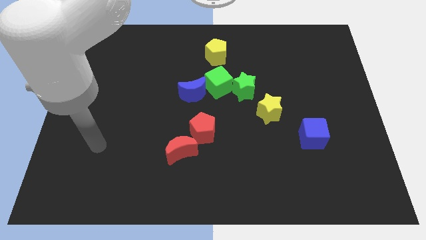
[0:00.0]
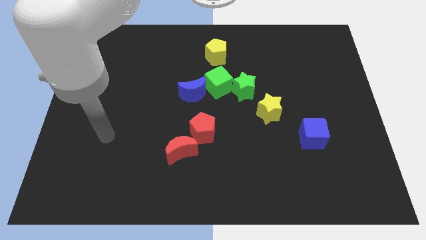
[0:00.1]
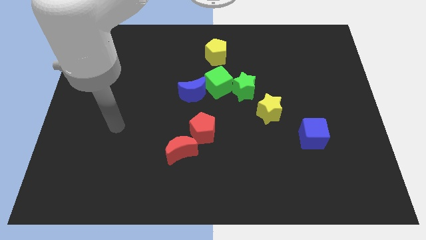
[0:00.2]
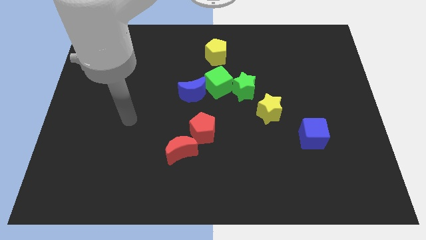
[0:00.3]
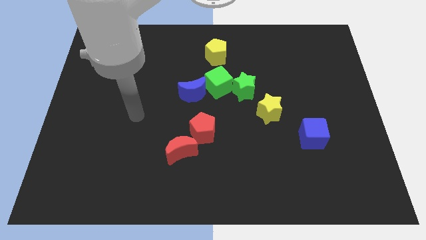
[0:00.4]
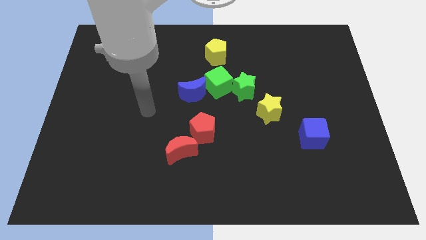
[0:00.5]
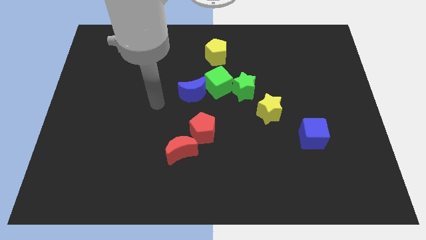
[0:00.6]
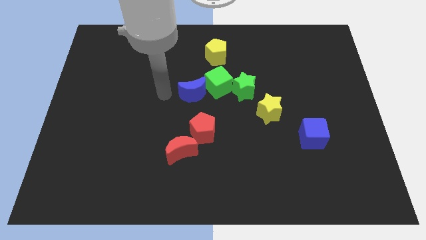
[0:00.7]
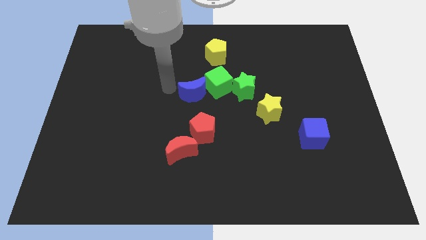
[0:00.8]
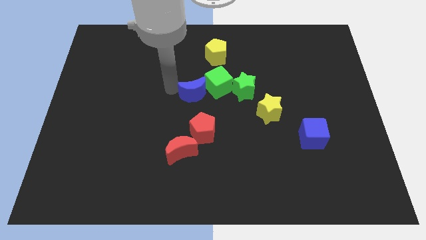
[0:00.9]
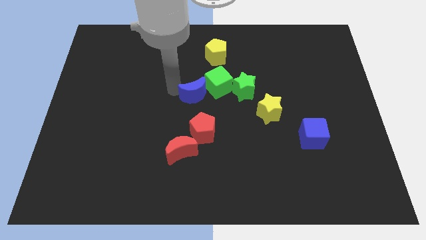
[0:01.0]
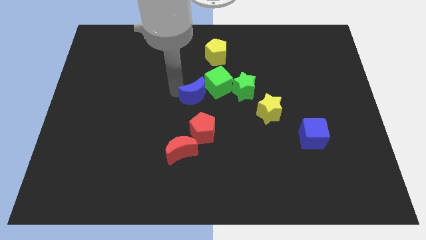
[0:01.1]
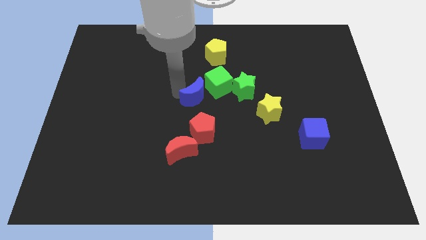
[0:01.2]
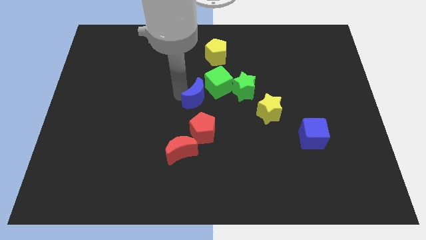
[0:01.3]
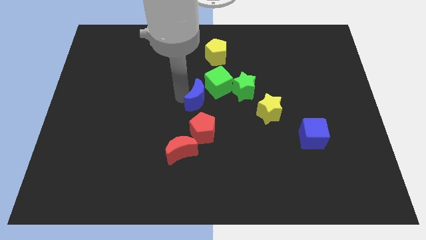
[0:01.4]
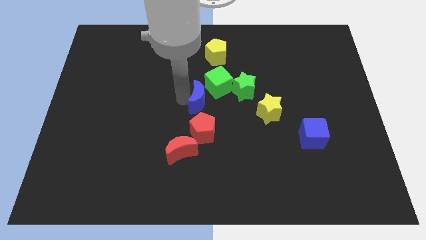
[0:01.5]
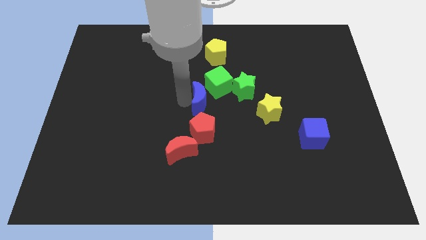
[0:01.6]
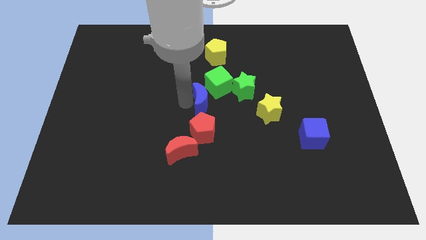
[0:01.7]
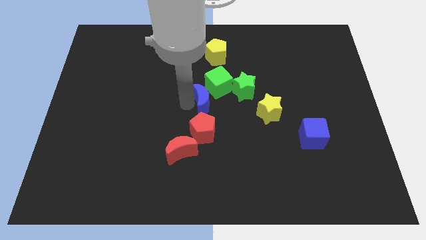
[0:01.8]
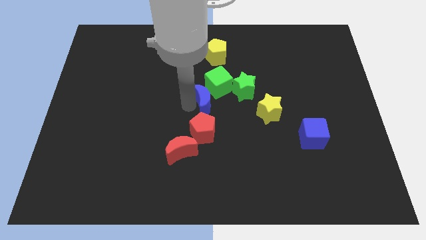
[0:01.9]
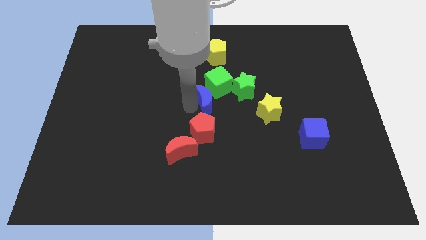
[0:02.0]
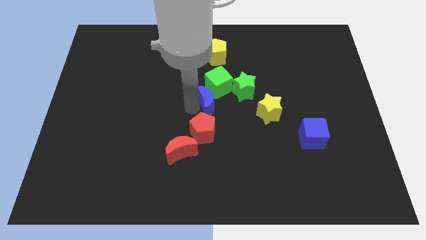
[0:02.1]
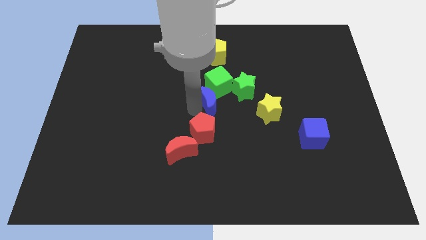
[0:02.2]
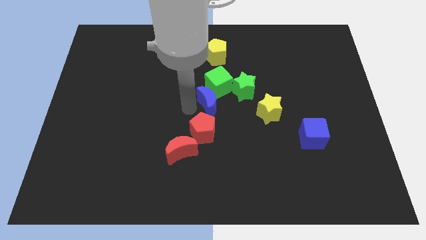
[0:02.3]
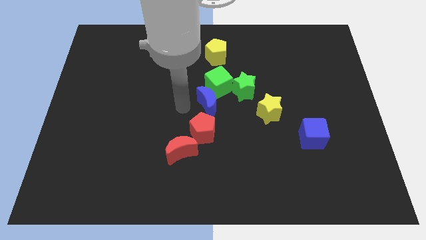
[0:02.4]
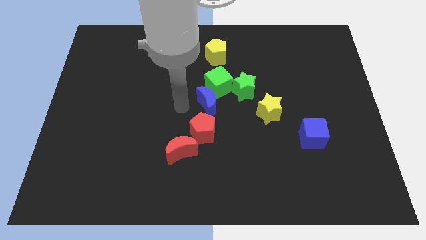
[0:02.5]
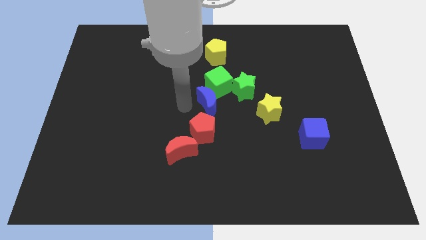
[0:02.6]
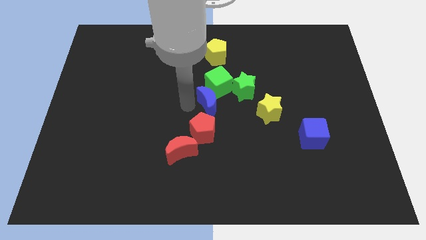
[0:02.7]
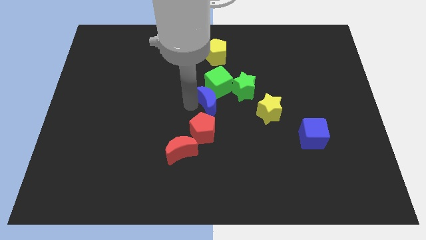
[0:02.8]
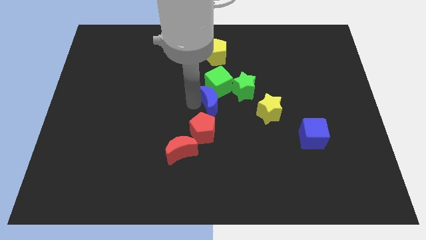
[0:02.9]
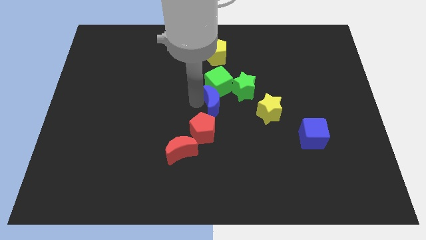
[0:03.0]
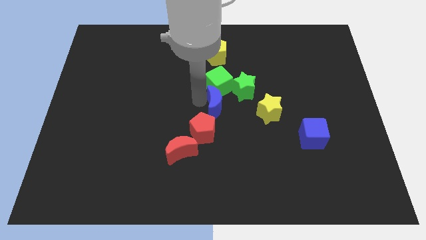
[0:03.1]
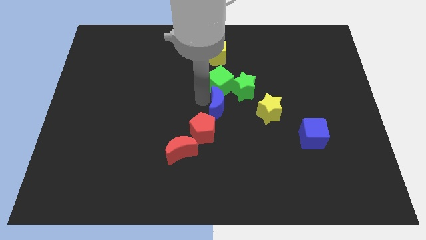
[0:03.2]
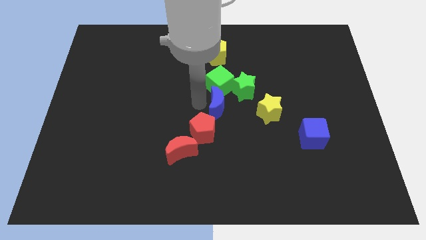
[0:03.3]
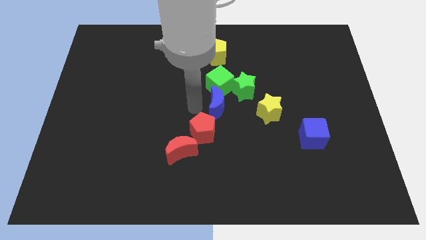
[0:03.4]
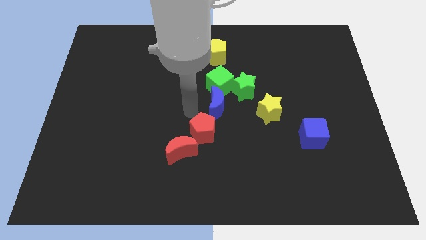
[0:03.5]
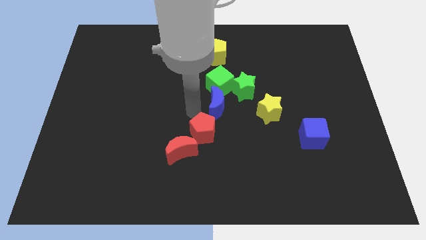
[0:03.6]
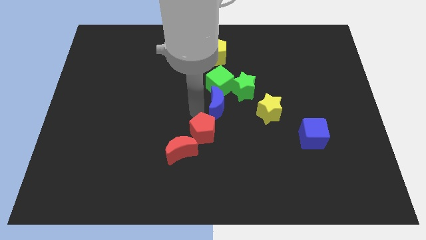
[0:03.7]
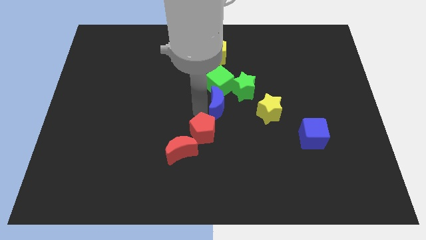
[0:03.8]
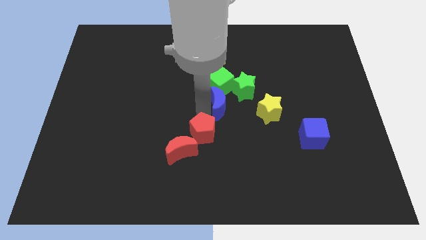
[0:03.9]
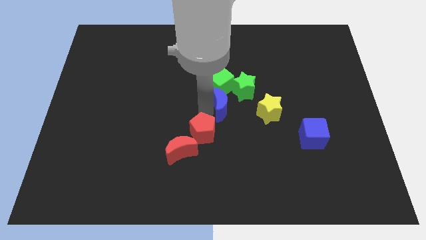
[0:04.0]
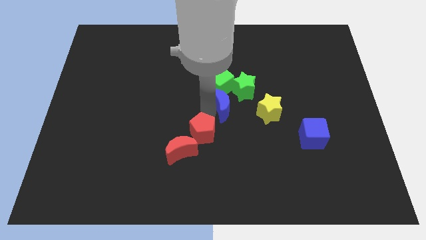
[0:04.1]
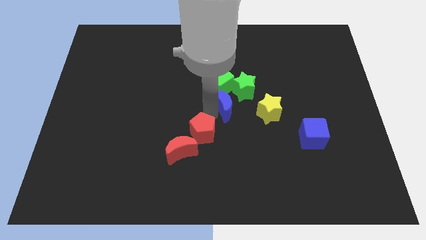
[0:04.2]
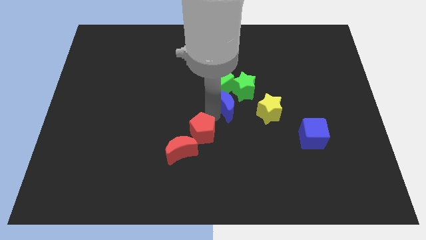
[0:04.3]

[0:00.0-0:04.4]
push the blue moon slightly to the right

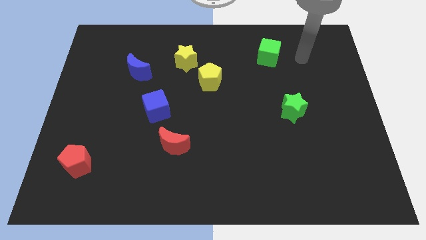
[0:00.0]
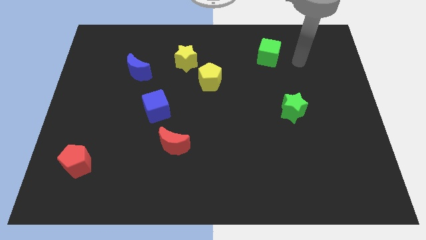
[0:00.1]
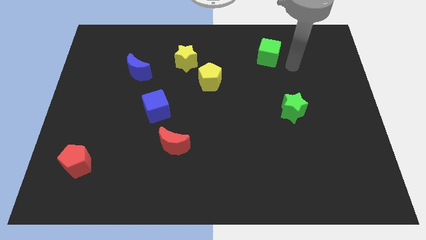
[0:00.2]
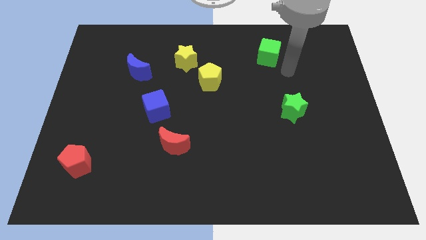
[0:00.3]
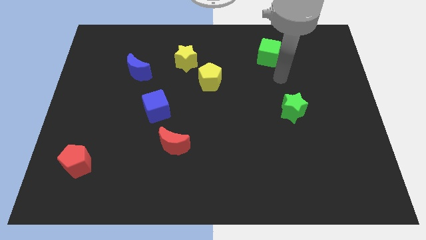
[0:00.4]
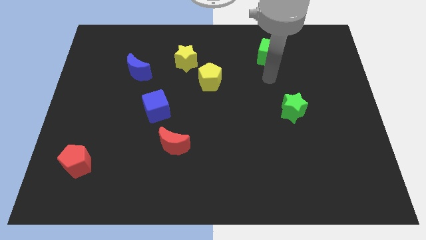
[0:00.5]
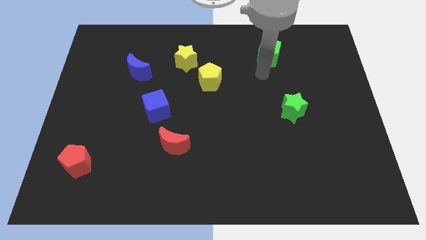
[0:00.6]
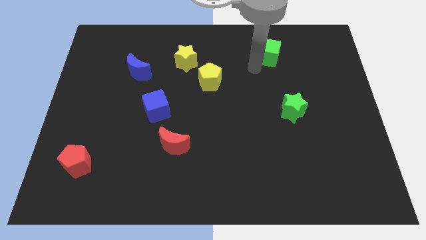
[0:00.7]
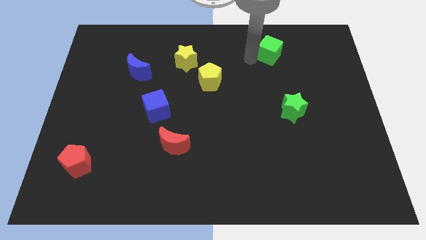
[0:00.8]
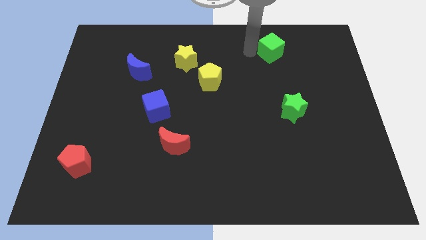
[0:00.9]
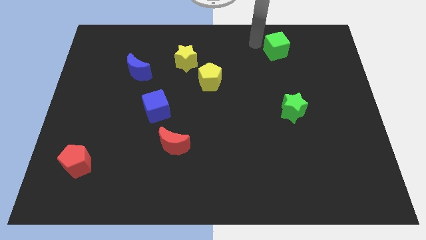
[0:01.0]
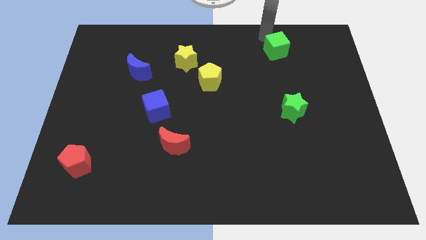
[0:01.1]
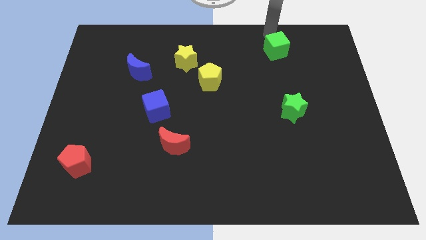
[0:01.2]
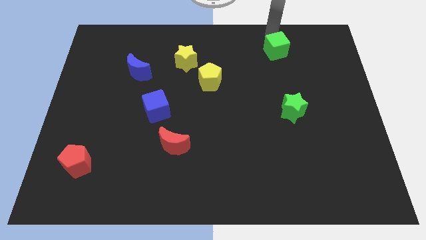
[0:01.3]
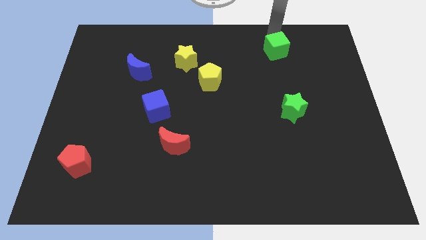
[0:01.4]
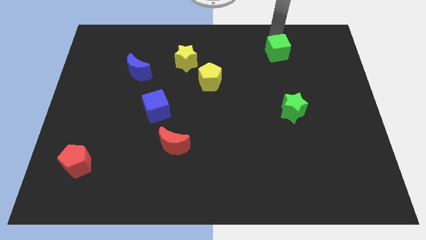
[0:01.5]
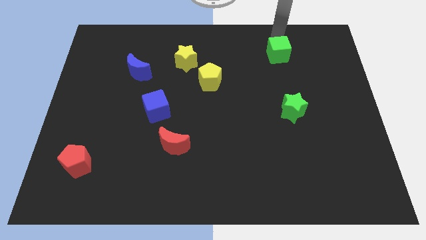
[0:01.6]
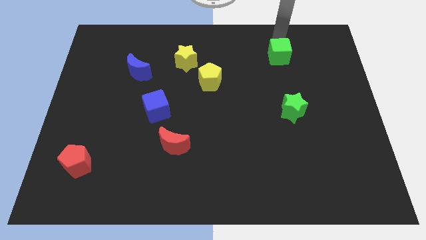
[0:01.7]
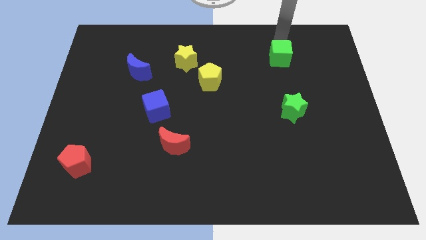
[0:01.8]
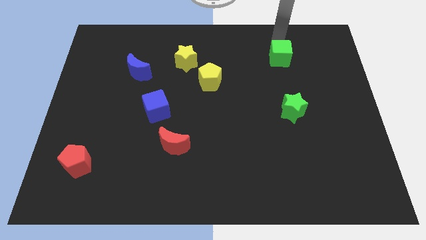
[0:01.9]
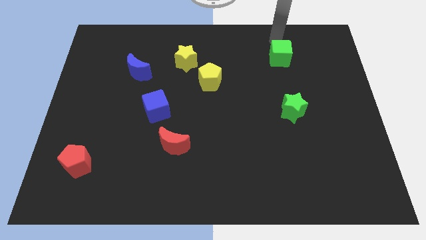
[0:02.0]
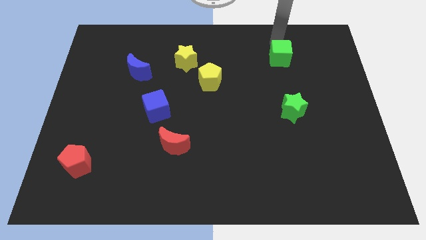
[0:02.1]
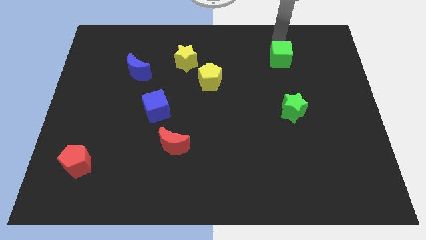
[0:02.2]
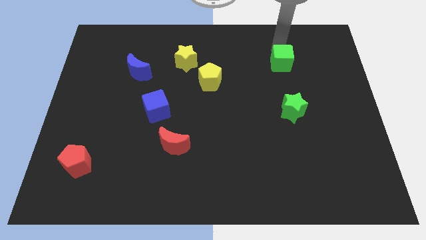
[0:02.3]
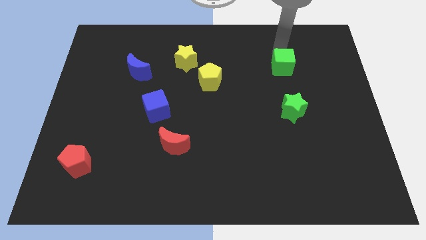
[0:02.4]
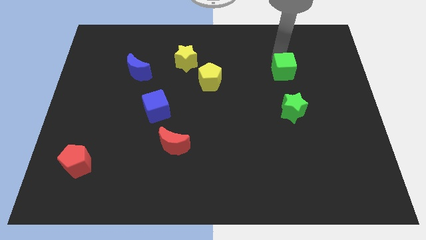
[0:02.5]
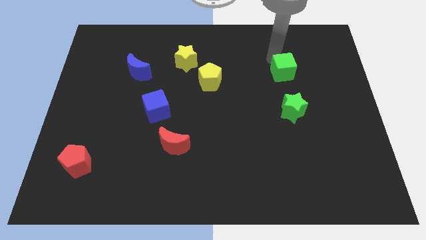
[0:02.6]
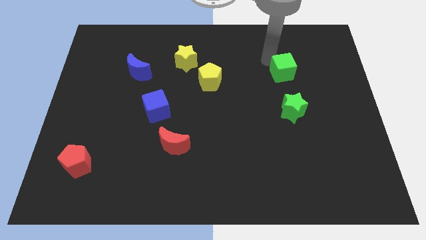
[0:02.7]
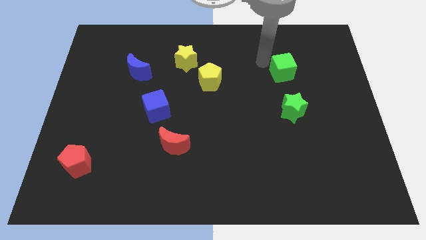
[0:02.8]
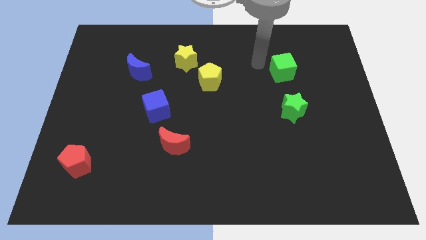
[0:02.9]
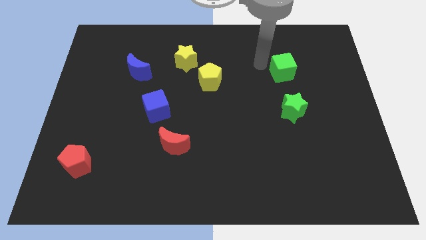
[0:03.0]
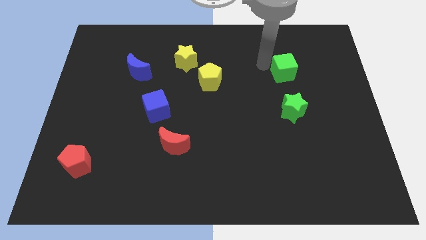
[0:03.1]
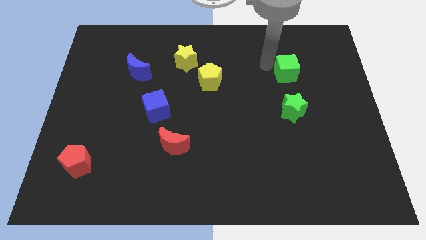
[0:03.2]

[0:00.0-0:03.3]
move the green cube a little bit diagonally downwards and right

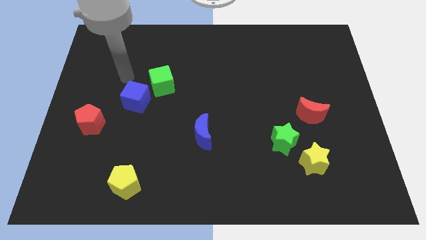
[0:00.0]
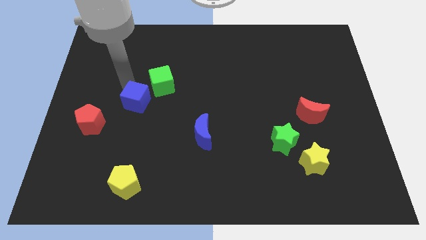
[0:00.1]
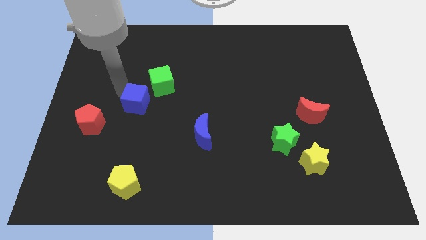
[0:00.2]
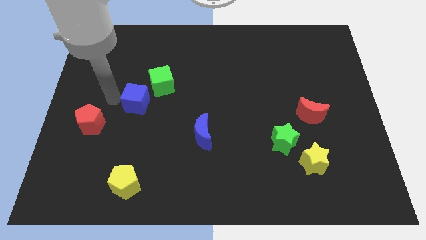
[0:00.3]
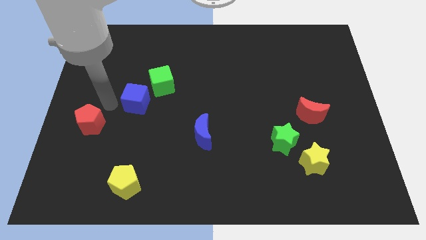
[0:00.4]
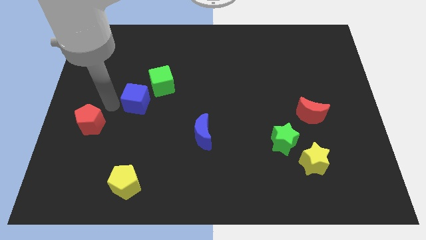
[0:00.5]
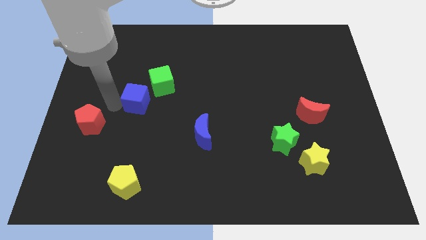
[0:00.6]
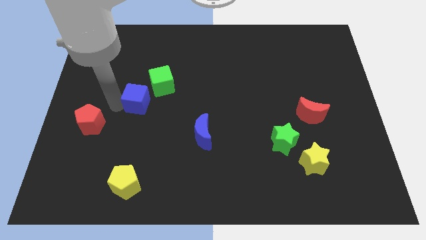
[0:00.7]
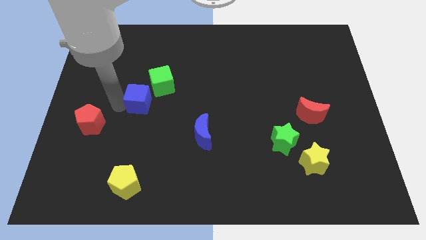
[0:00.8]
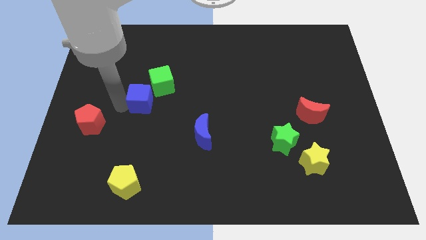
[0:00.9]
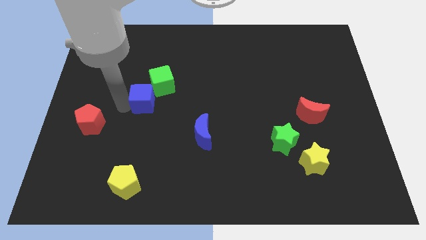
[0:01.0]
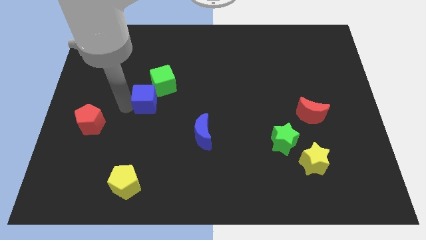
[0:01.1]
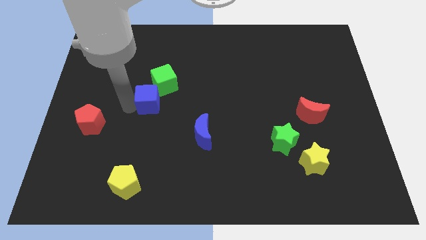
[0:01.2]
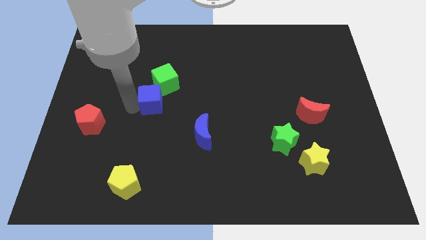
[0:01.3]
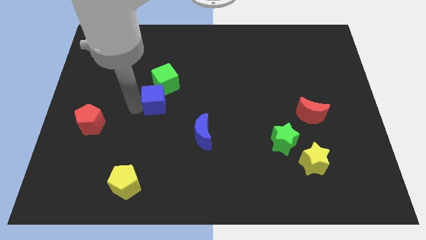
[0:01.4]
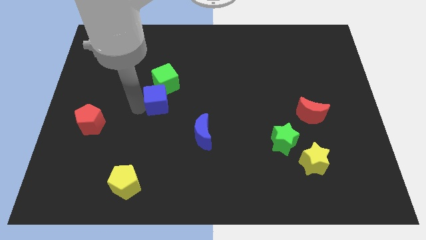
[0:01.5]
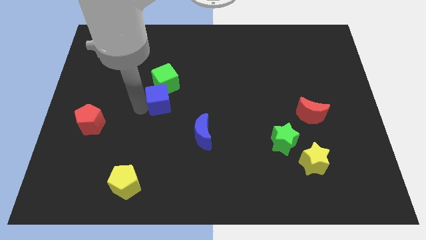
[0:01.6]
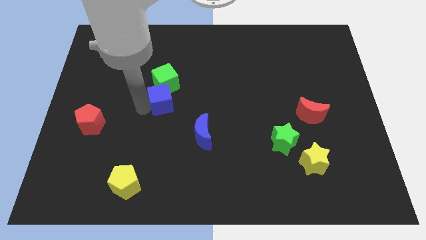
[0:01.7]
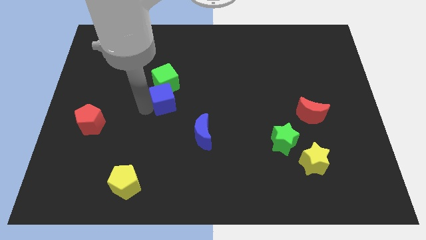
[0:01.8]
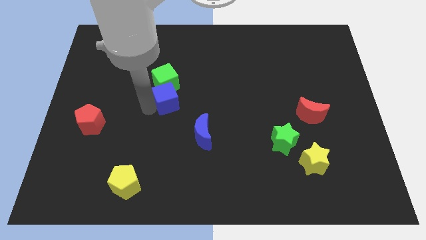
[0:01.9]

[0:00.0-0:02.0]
slide the blue cube a bit right
